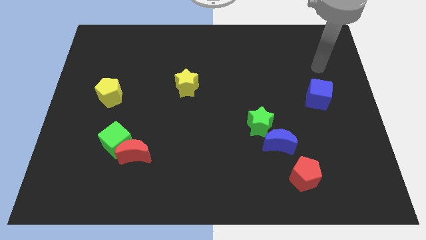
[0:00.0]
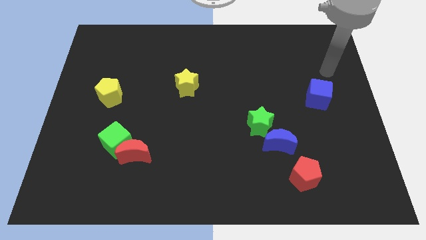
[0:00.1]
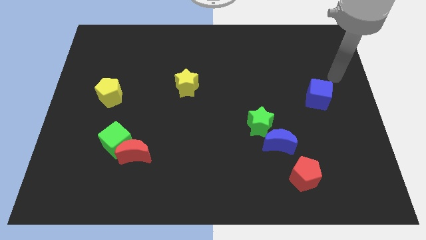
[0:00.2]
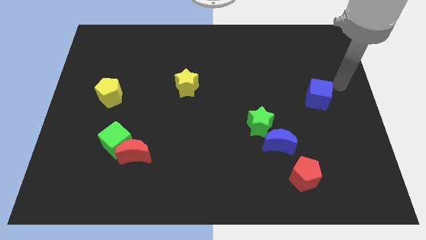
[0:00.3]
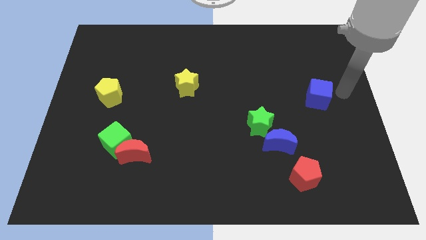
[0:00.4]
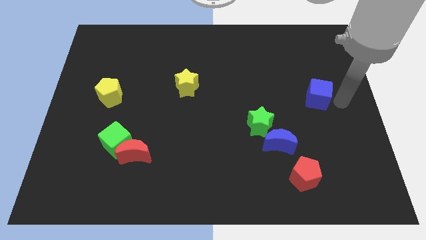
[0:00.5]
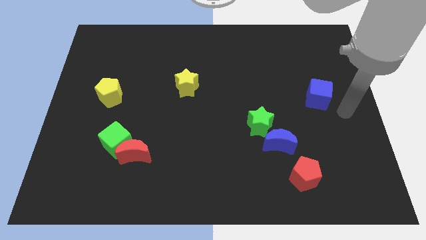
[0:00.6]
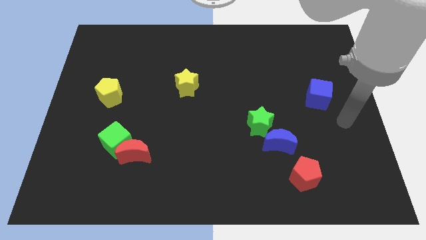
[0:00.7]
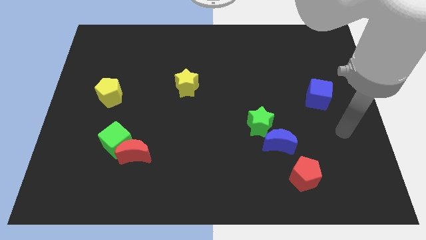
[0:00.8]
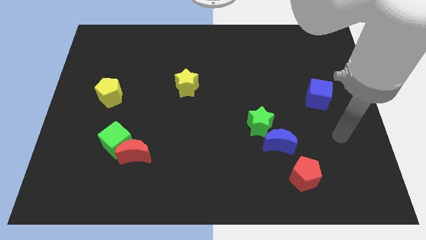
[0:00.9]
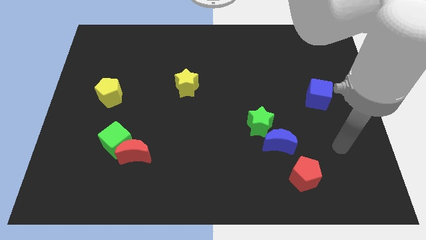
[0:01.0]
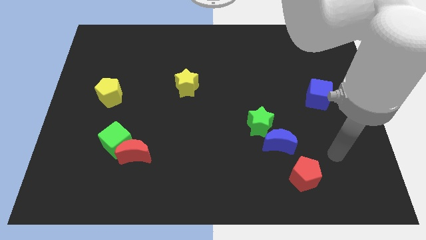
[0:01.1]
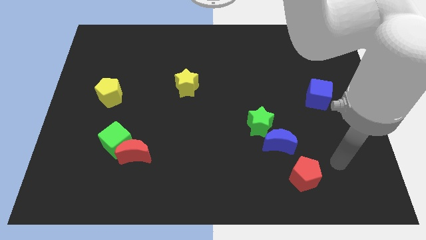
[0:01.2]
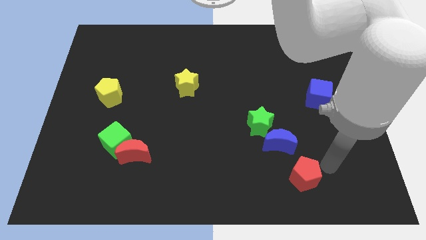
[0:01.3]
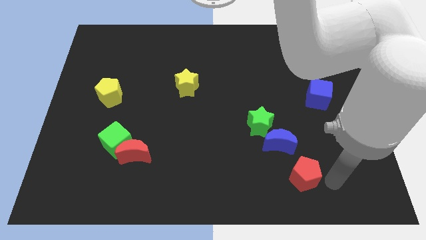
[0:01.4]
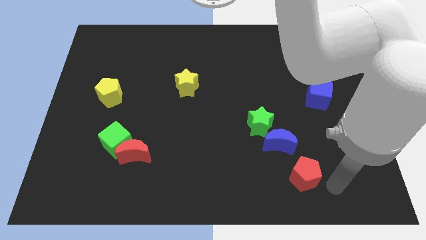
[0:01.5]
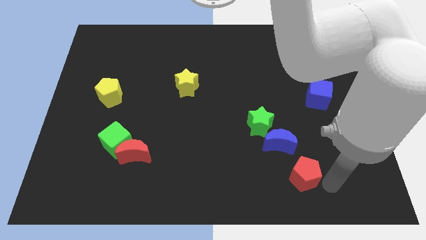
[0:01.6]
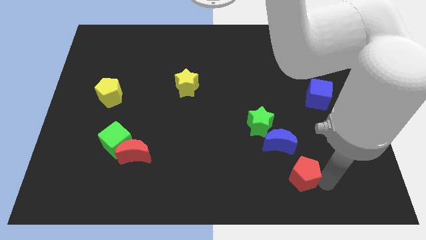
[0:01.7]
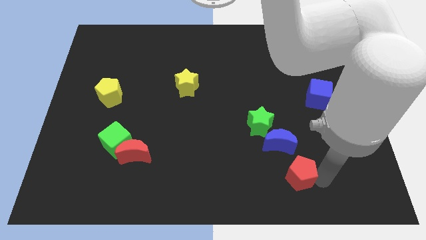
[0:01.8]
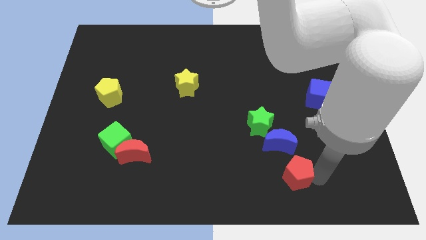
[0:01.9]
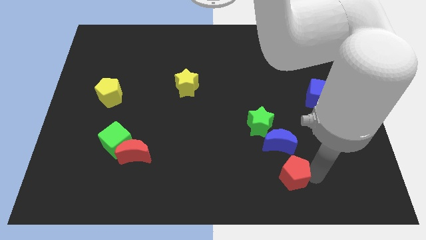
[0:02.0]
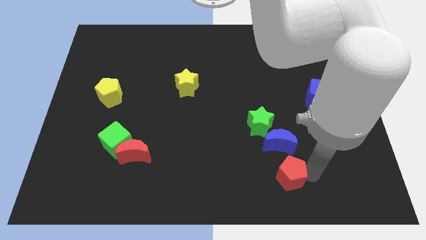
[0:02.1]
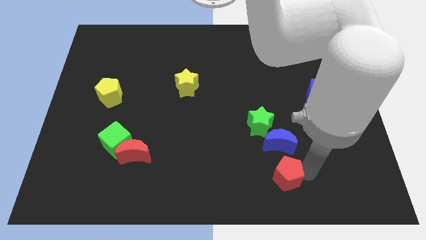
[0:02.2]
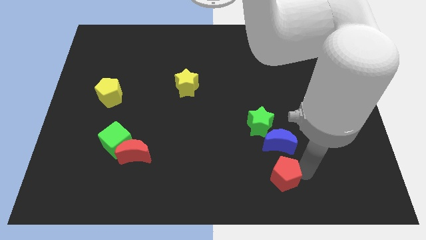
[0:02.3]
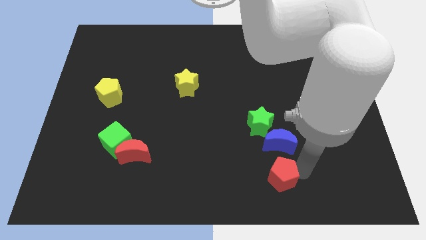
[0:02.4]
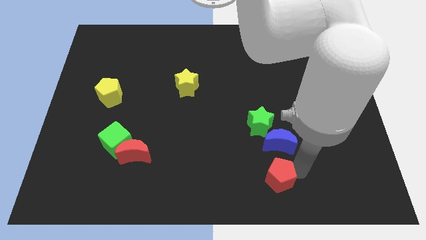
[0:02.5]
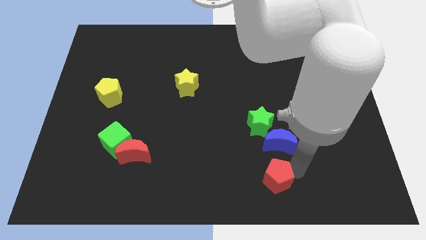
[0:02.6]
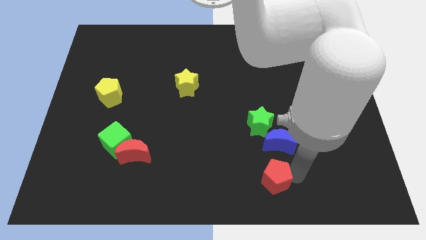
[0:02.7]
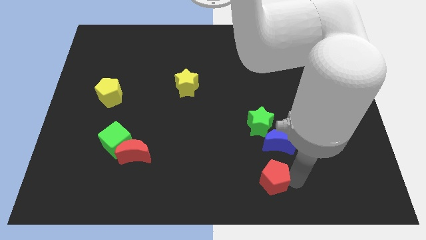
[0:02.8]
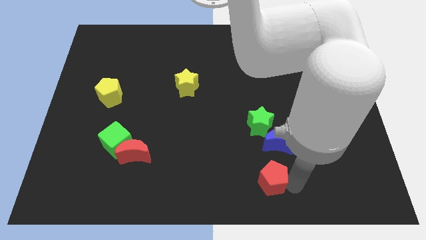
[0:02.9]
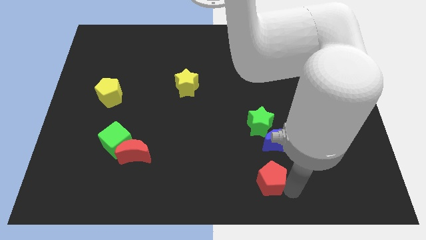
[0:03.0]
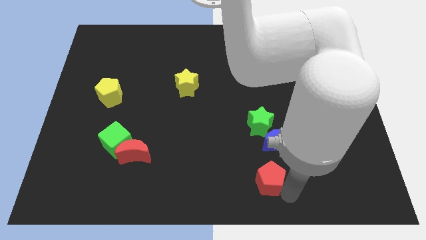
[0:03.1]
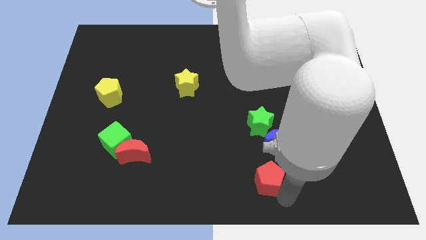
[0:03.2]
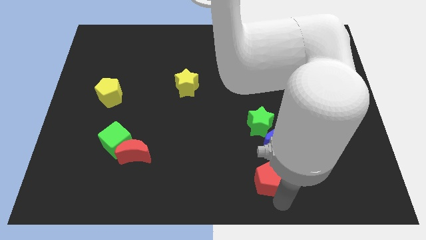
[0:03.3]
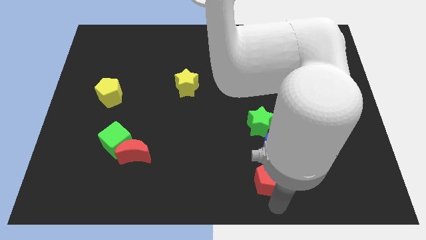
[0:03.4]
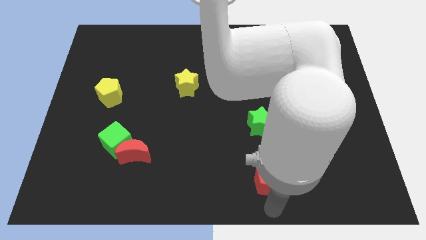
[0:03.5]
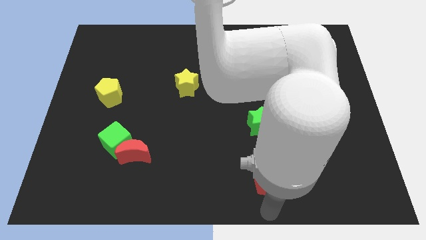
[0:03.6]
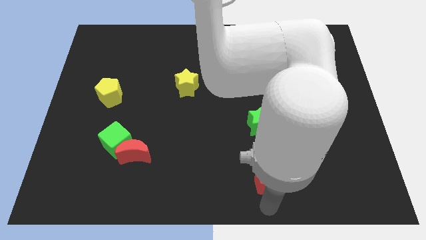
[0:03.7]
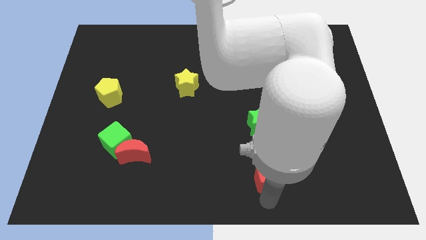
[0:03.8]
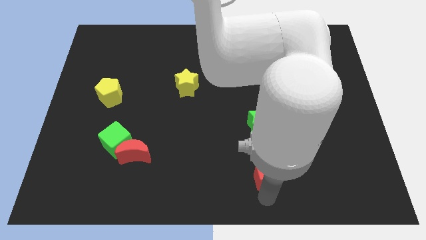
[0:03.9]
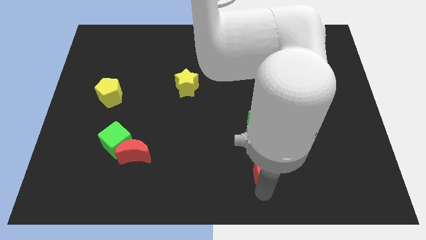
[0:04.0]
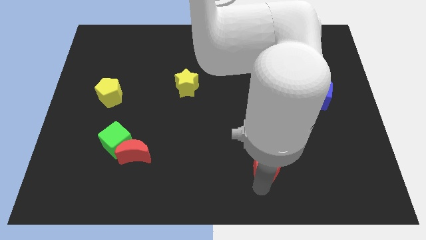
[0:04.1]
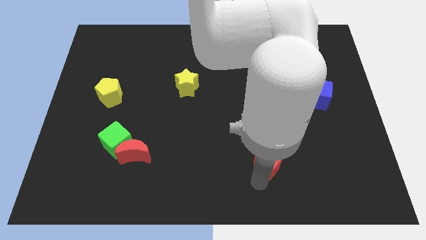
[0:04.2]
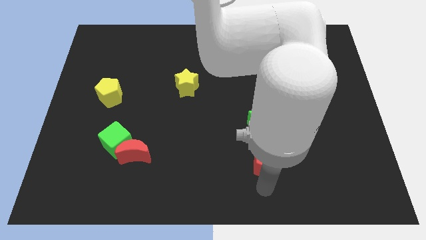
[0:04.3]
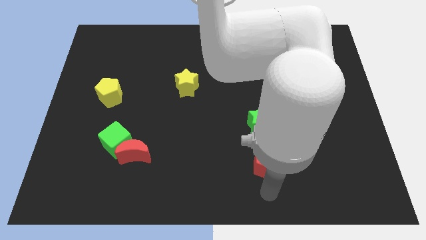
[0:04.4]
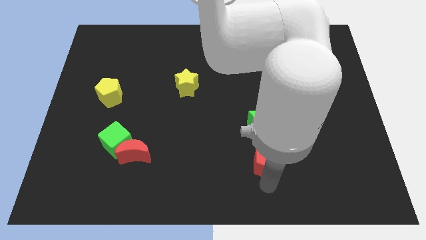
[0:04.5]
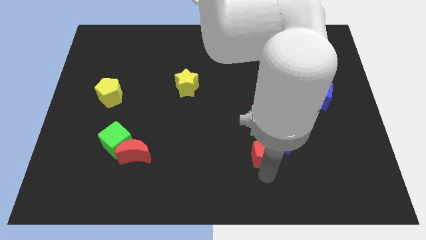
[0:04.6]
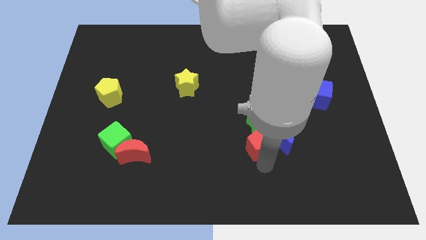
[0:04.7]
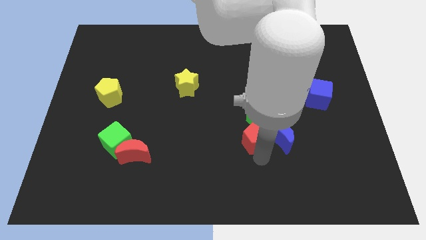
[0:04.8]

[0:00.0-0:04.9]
put the red pentagon to the green star

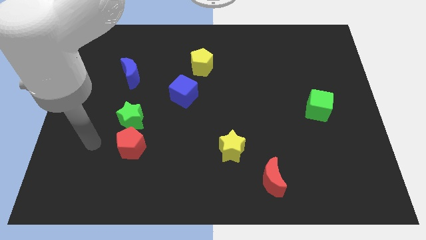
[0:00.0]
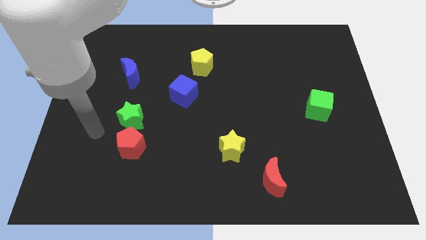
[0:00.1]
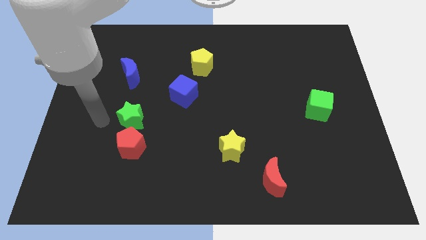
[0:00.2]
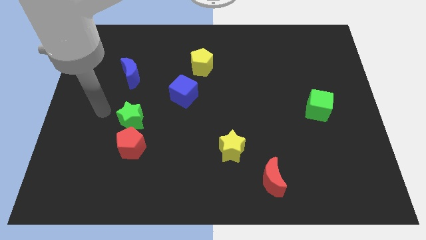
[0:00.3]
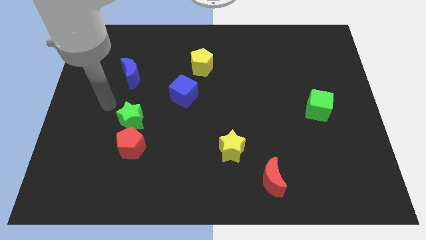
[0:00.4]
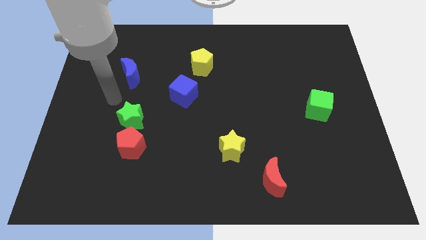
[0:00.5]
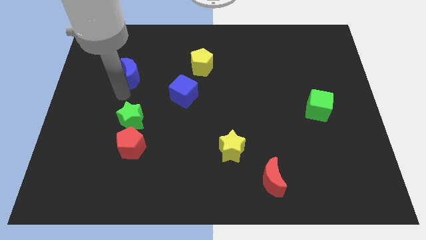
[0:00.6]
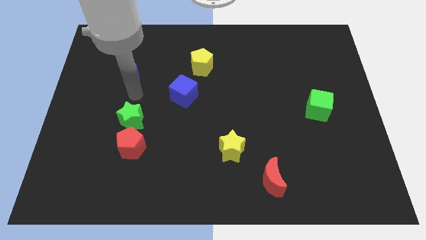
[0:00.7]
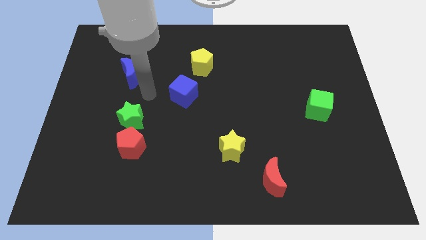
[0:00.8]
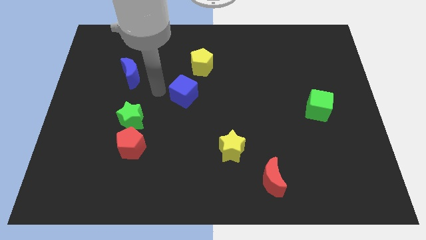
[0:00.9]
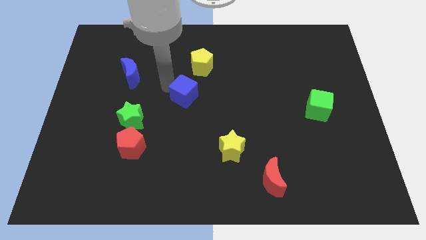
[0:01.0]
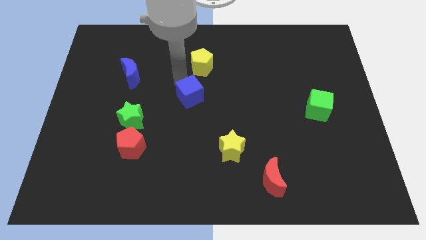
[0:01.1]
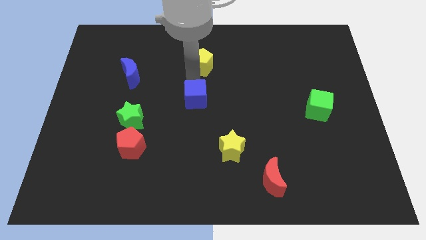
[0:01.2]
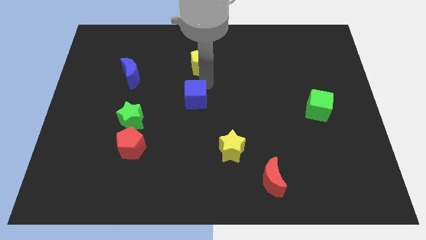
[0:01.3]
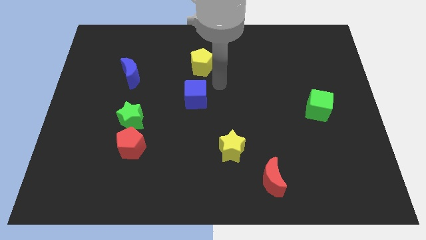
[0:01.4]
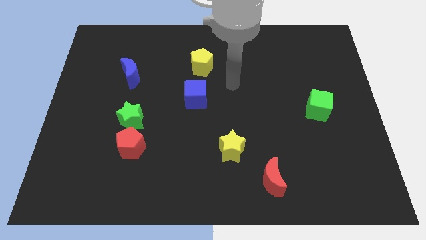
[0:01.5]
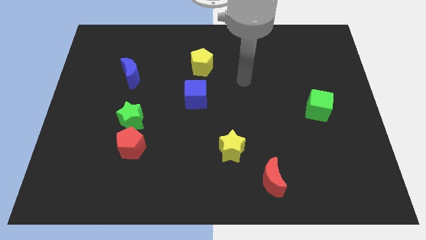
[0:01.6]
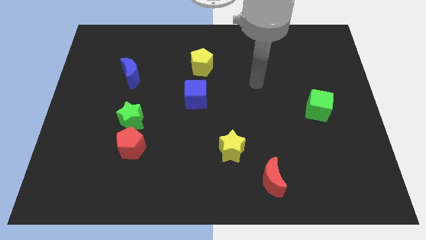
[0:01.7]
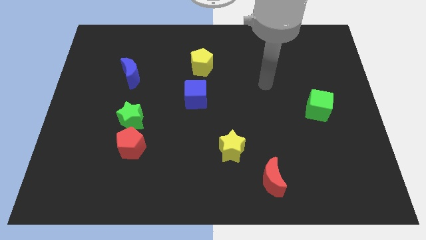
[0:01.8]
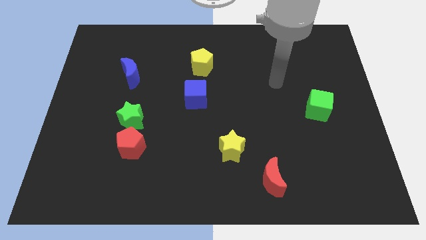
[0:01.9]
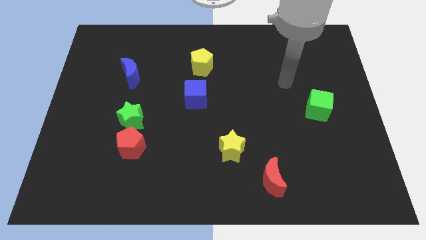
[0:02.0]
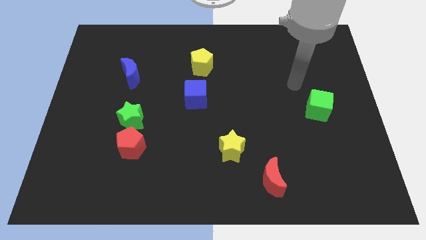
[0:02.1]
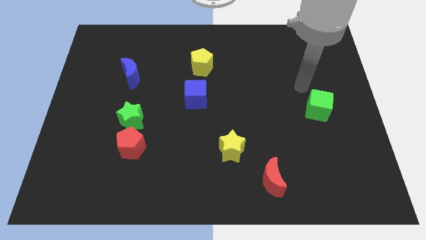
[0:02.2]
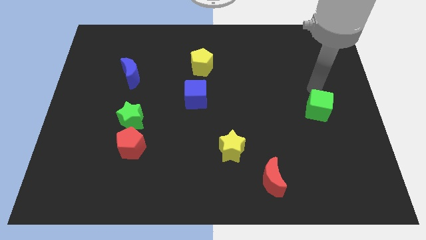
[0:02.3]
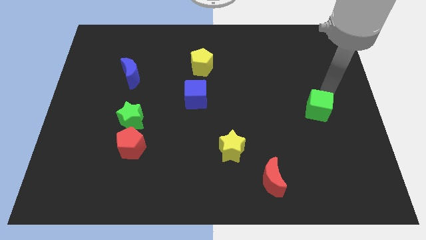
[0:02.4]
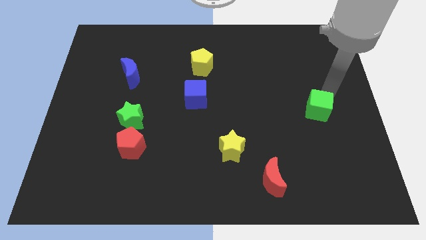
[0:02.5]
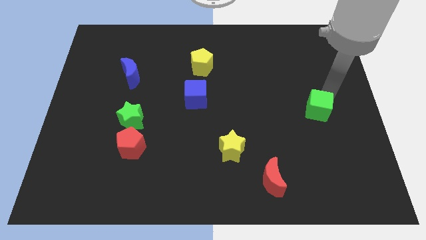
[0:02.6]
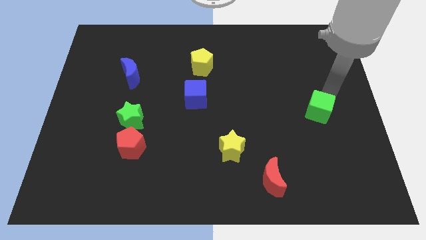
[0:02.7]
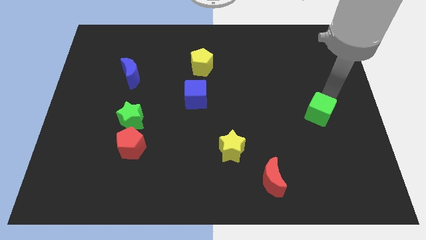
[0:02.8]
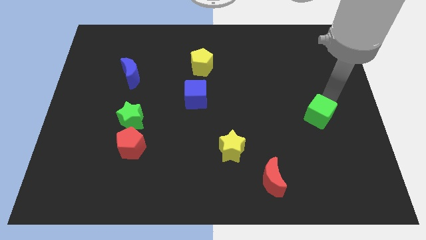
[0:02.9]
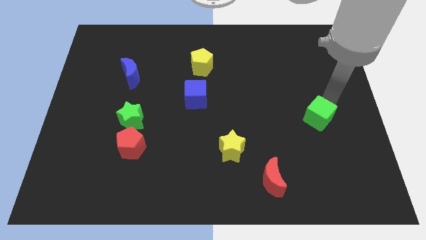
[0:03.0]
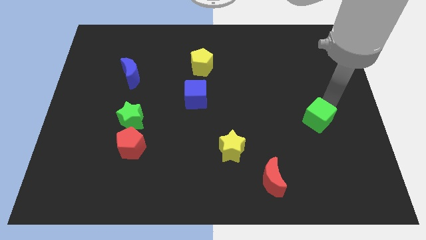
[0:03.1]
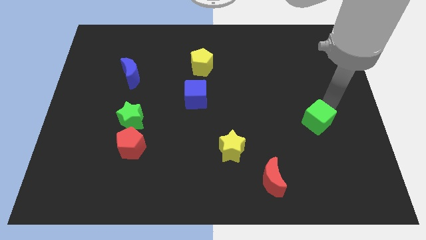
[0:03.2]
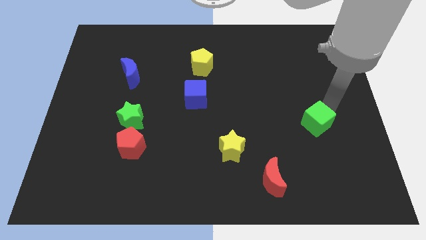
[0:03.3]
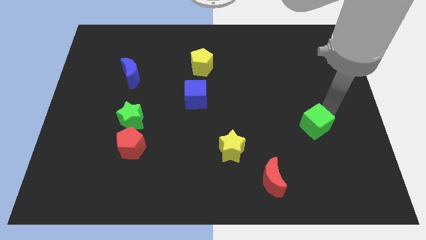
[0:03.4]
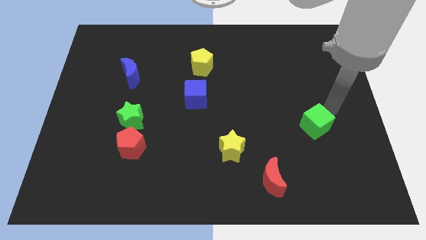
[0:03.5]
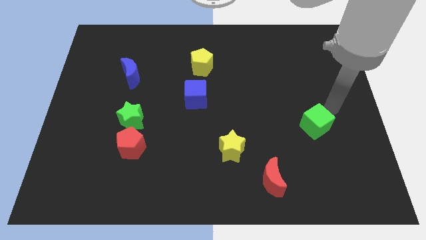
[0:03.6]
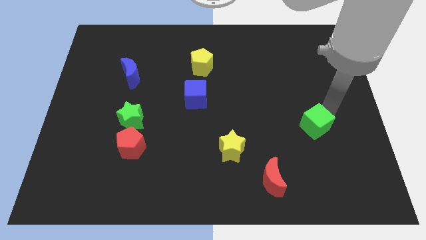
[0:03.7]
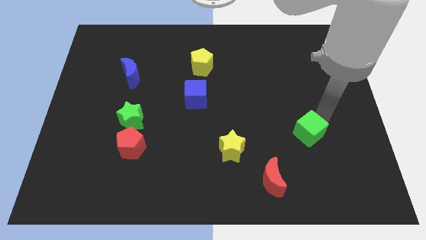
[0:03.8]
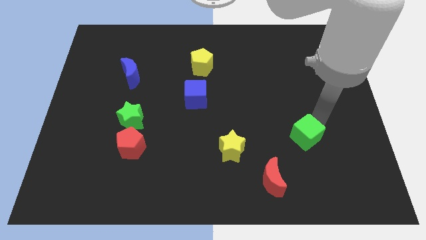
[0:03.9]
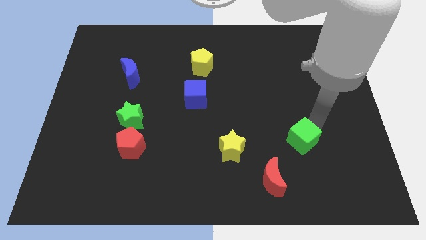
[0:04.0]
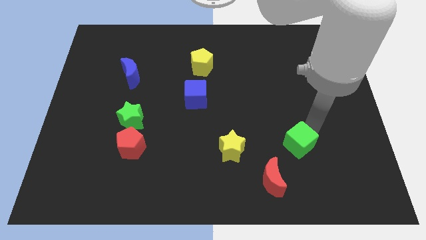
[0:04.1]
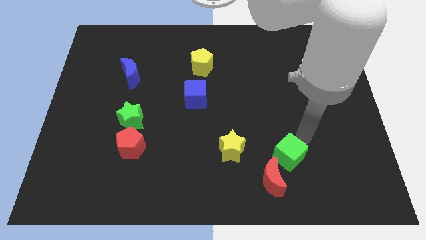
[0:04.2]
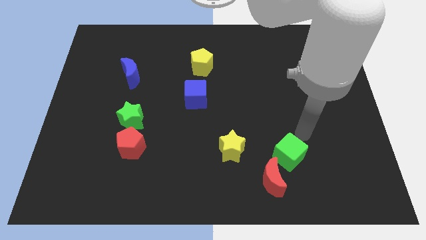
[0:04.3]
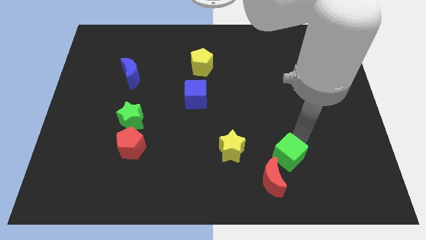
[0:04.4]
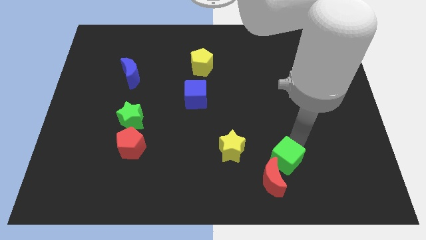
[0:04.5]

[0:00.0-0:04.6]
slide the green cube next to the red moon
